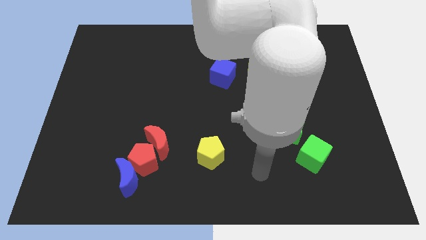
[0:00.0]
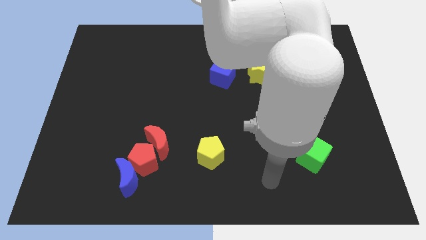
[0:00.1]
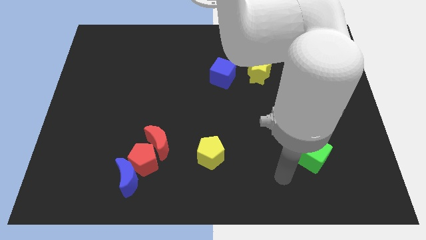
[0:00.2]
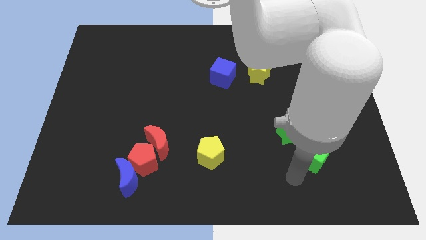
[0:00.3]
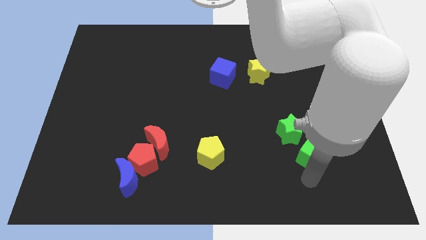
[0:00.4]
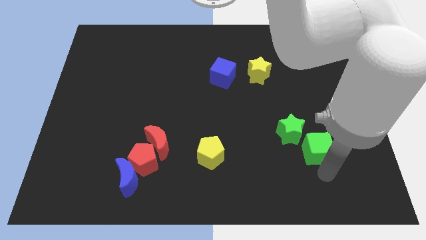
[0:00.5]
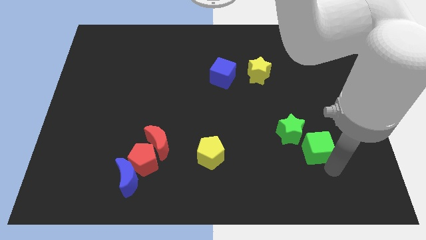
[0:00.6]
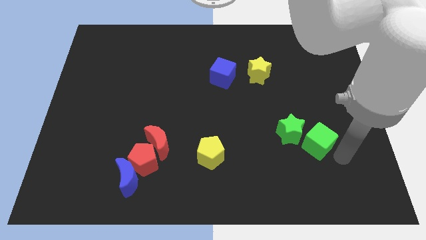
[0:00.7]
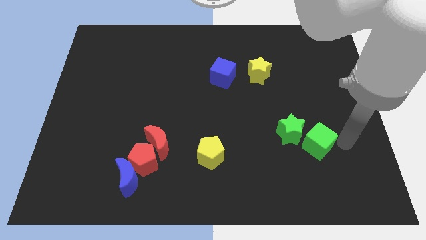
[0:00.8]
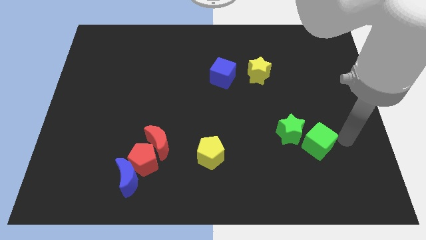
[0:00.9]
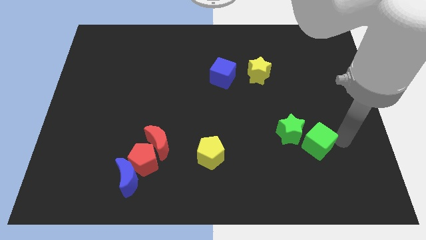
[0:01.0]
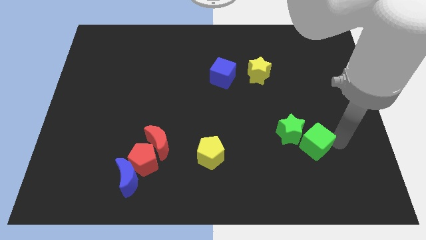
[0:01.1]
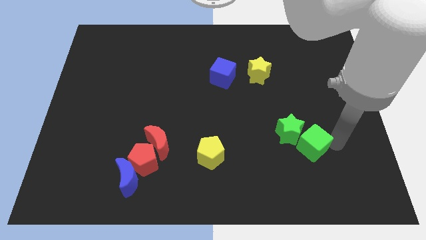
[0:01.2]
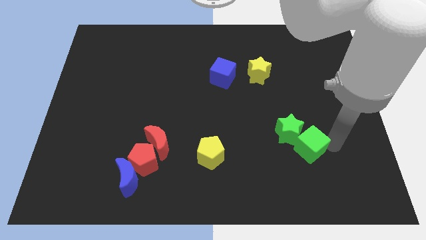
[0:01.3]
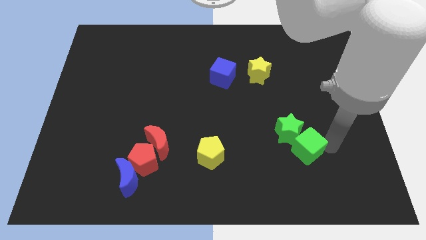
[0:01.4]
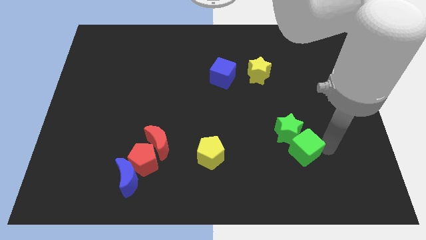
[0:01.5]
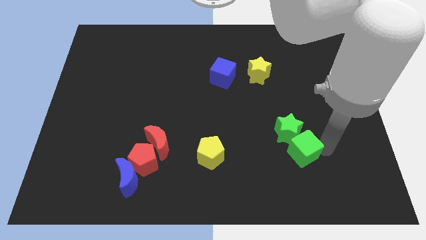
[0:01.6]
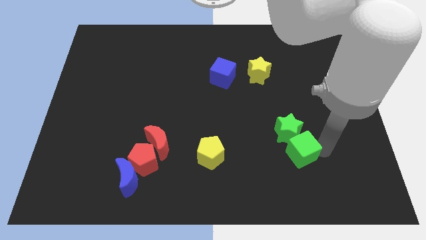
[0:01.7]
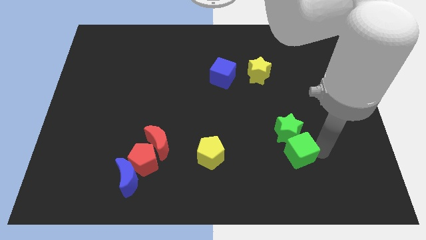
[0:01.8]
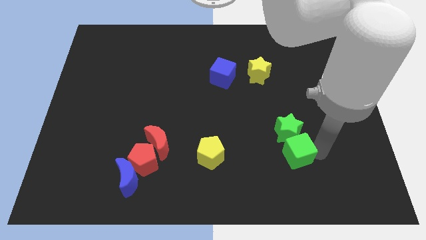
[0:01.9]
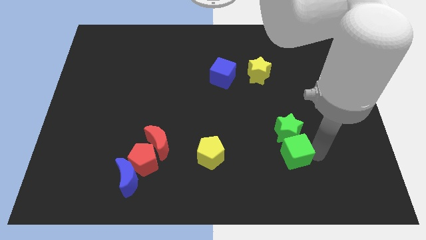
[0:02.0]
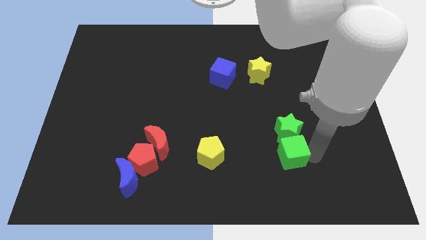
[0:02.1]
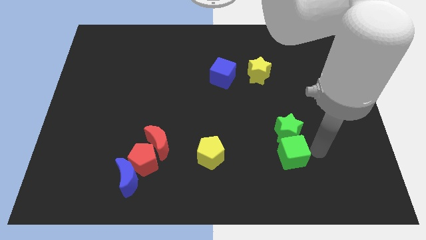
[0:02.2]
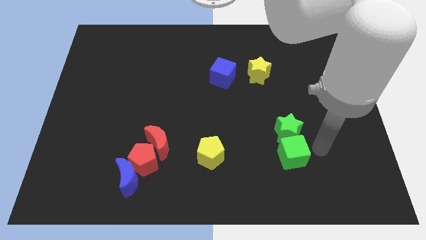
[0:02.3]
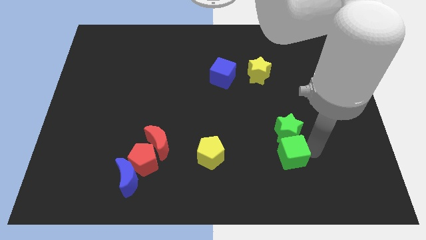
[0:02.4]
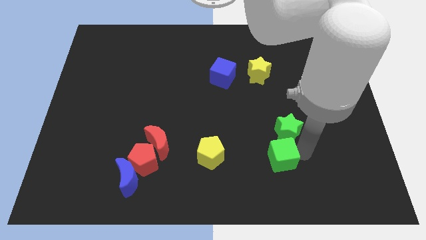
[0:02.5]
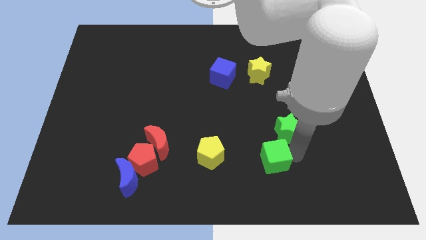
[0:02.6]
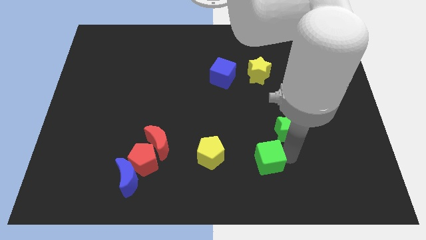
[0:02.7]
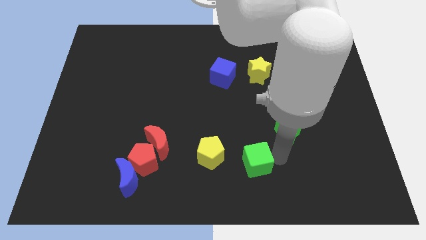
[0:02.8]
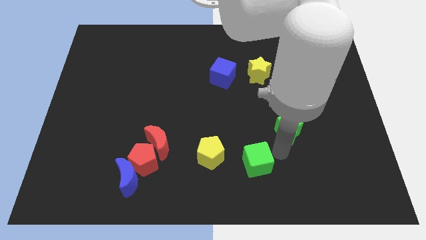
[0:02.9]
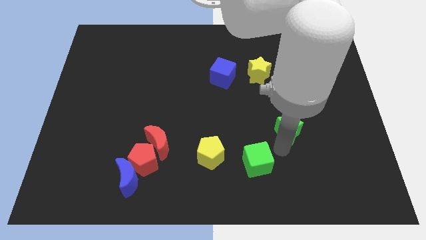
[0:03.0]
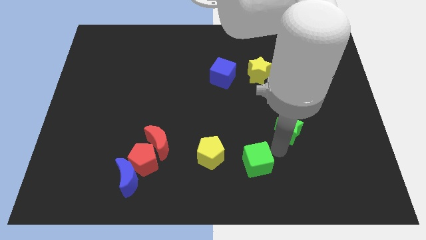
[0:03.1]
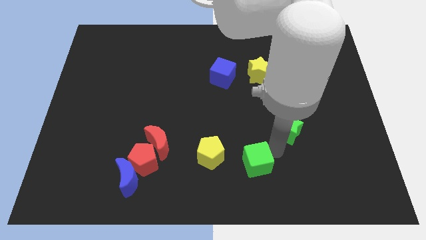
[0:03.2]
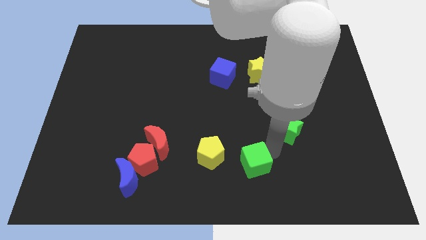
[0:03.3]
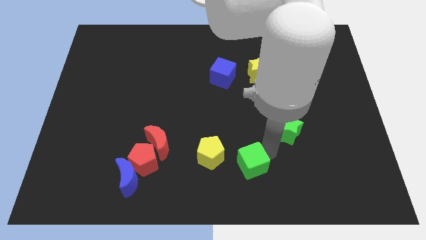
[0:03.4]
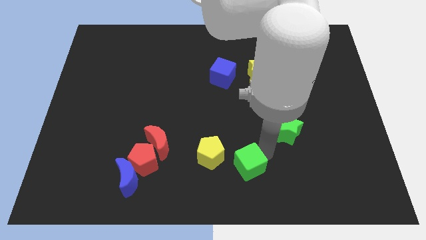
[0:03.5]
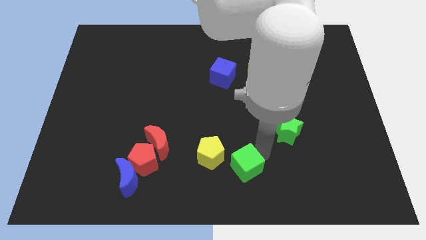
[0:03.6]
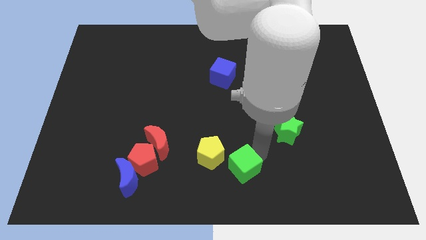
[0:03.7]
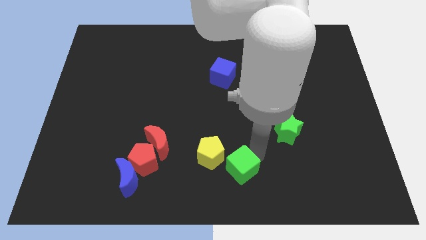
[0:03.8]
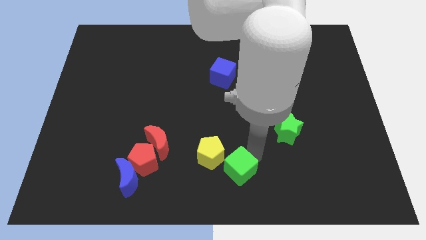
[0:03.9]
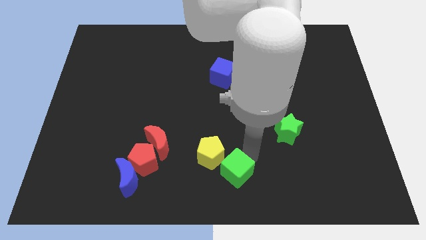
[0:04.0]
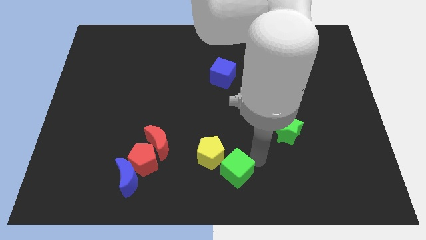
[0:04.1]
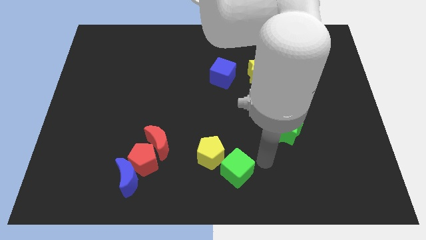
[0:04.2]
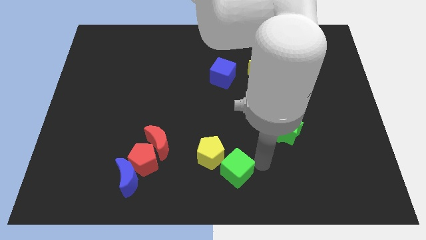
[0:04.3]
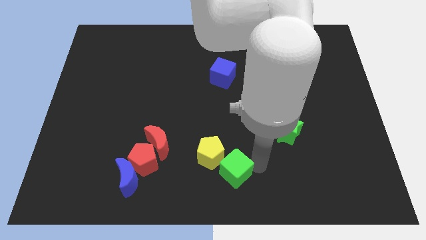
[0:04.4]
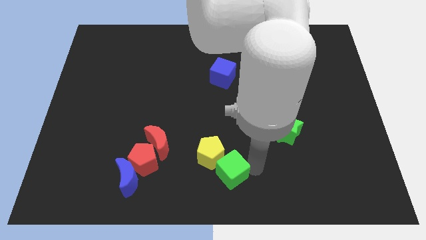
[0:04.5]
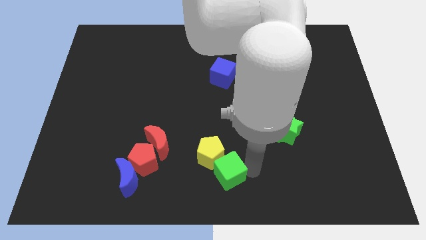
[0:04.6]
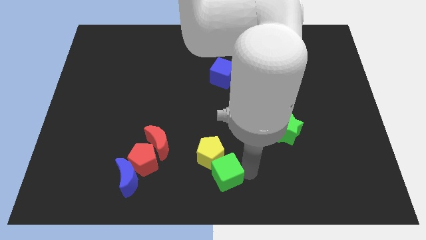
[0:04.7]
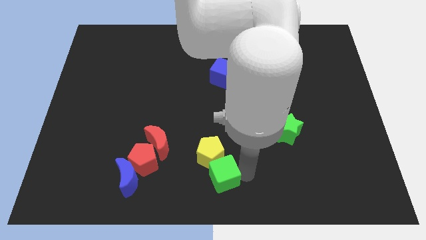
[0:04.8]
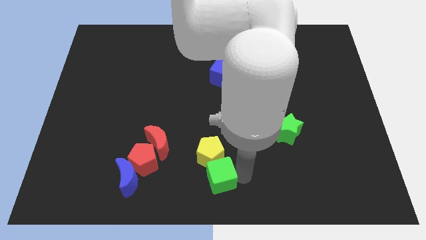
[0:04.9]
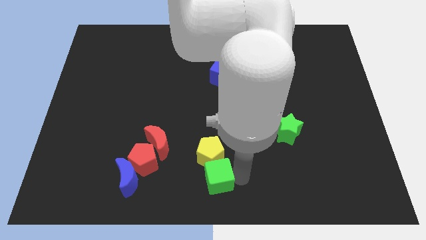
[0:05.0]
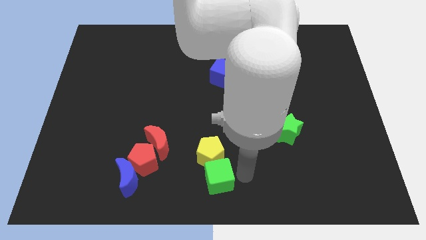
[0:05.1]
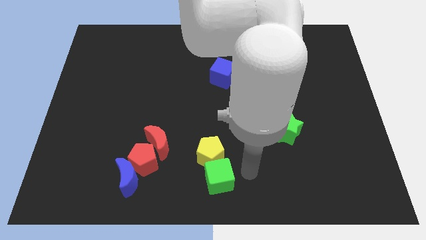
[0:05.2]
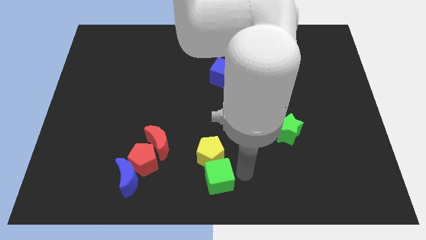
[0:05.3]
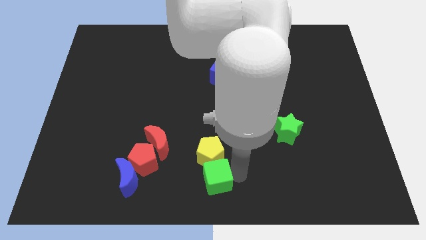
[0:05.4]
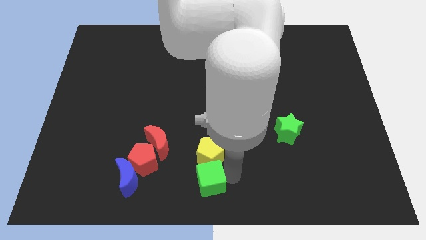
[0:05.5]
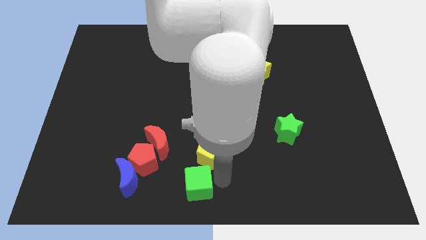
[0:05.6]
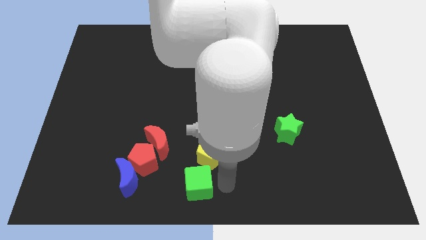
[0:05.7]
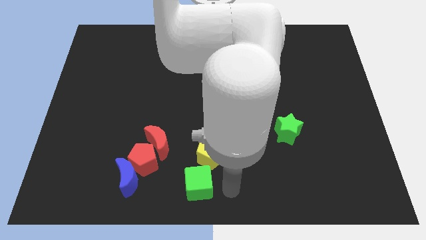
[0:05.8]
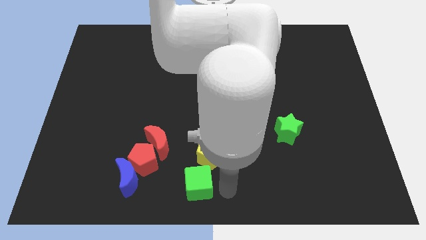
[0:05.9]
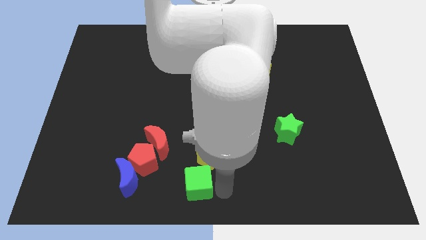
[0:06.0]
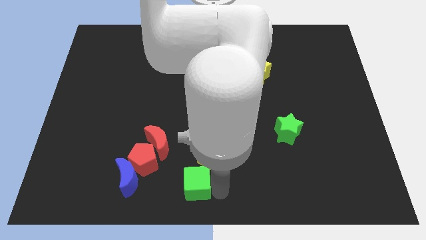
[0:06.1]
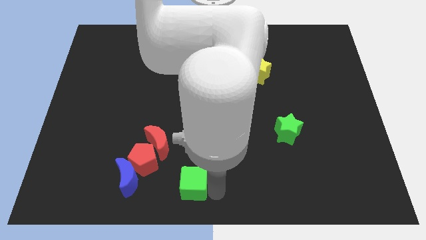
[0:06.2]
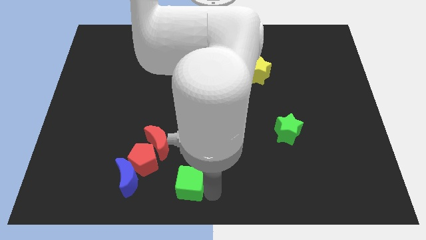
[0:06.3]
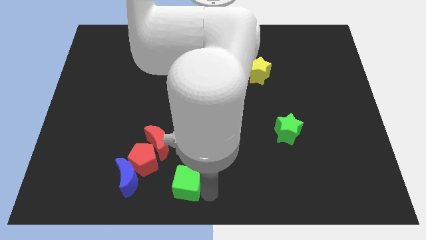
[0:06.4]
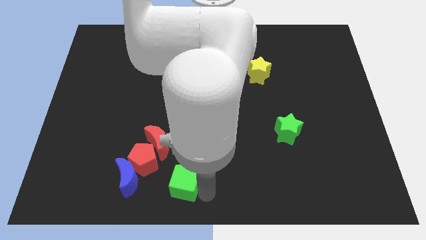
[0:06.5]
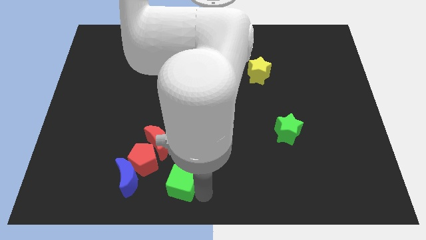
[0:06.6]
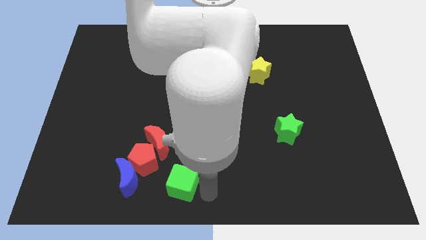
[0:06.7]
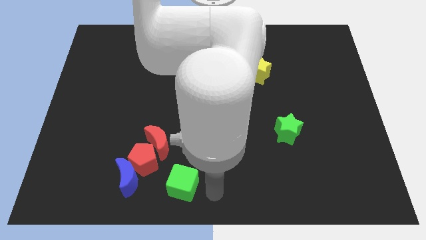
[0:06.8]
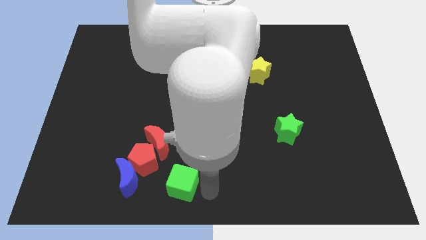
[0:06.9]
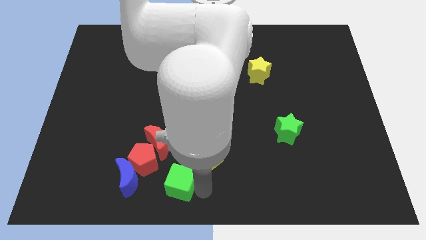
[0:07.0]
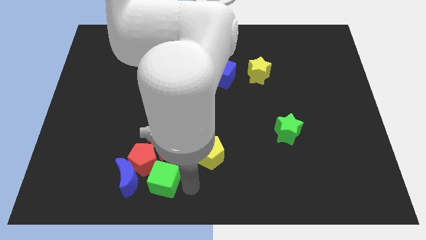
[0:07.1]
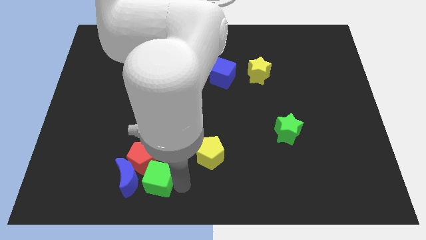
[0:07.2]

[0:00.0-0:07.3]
put the green cube close to the blue moon
